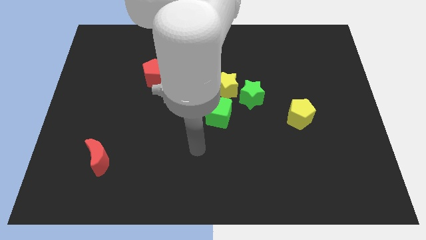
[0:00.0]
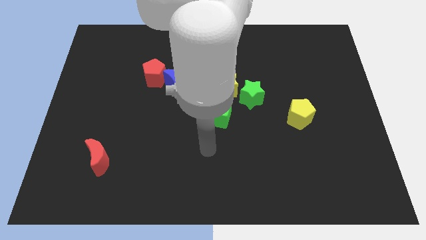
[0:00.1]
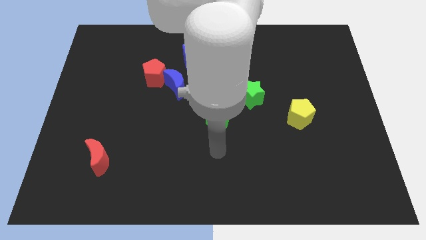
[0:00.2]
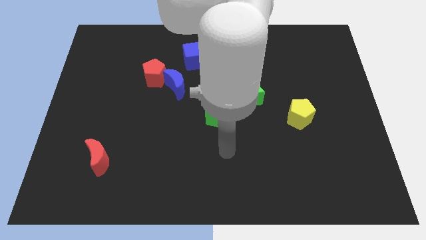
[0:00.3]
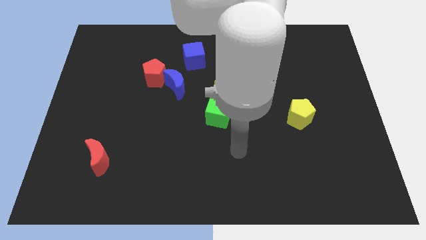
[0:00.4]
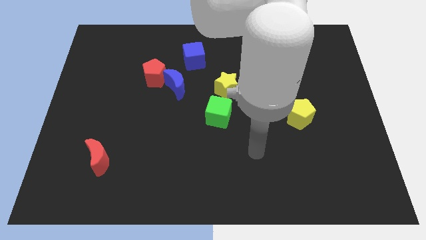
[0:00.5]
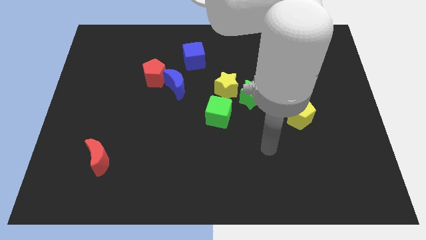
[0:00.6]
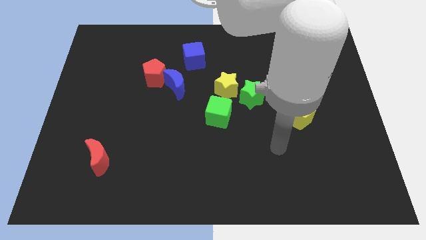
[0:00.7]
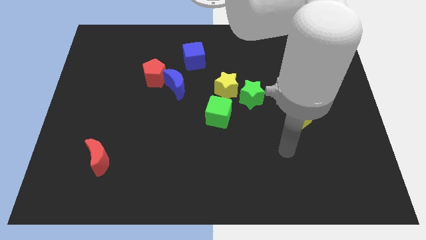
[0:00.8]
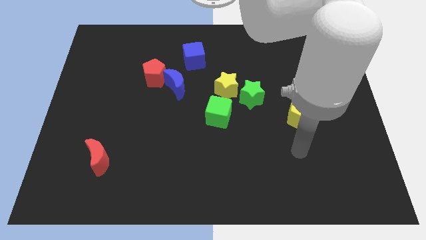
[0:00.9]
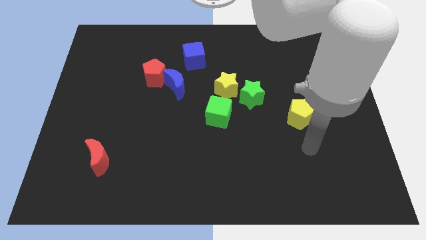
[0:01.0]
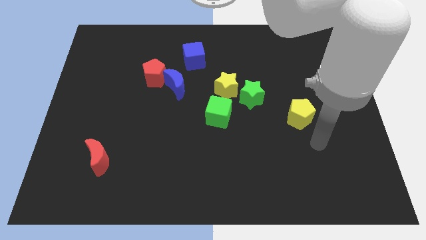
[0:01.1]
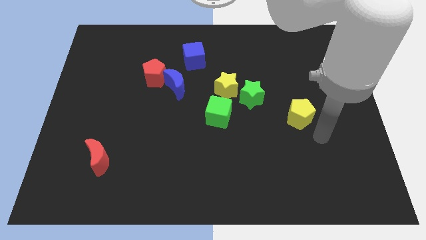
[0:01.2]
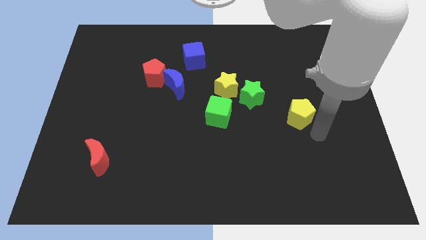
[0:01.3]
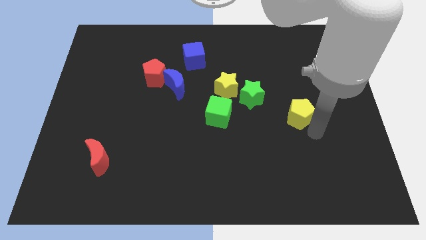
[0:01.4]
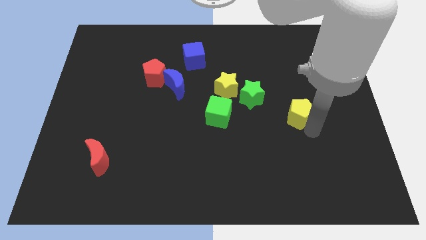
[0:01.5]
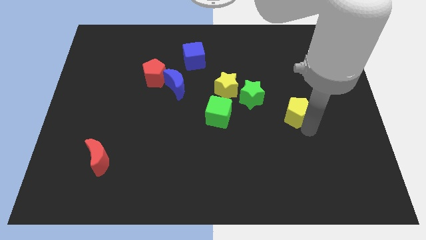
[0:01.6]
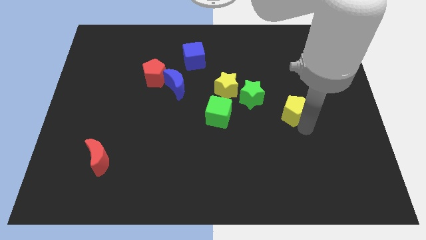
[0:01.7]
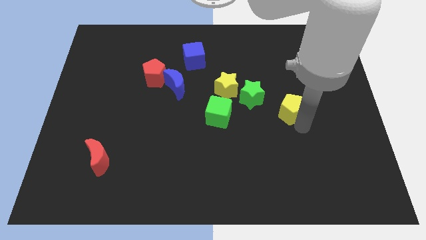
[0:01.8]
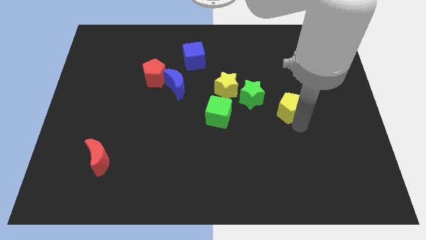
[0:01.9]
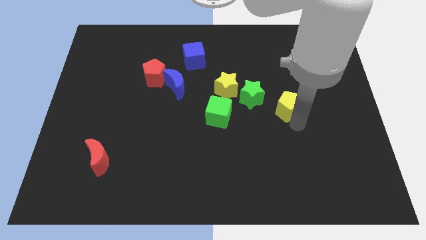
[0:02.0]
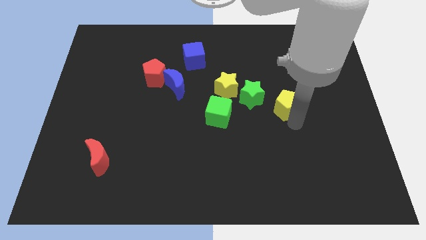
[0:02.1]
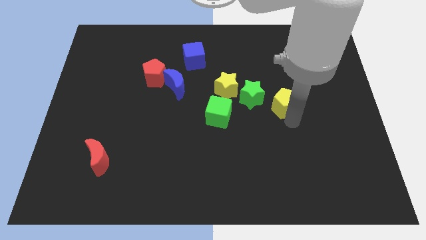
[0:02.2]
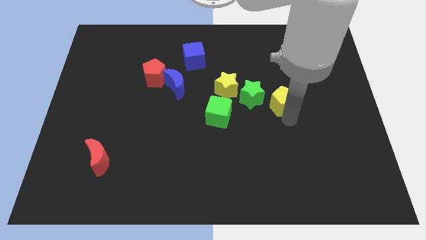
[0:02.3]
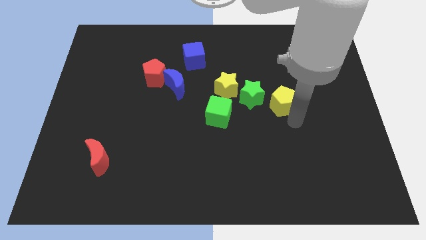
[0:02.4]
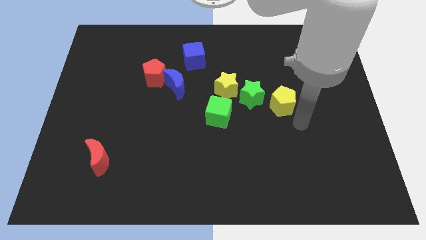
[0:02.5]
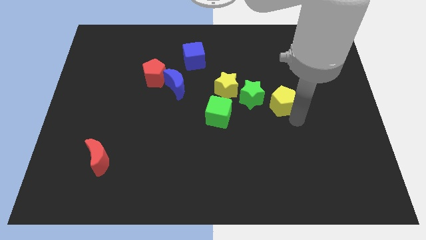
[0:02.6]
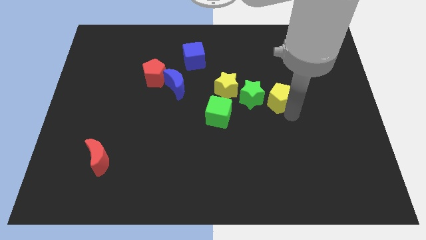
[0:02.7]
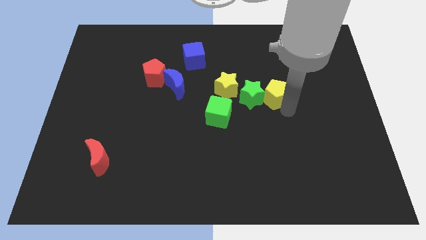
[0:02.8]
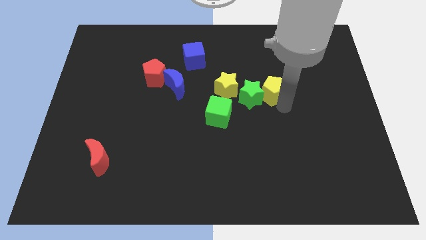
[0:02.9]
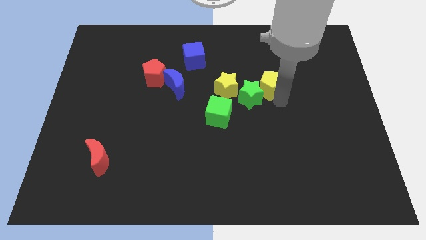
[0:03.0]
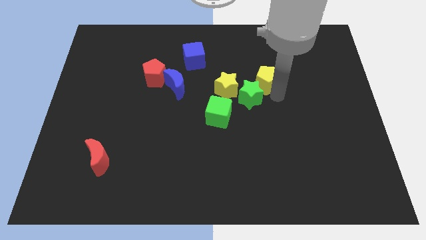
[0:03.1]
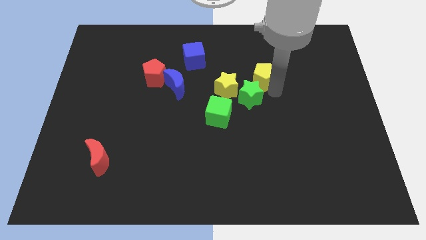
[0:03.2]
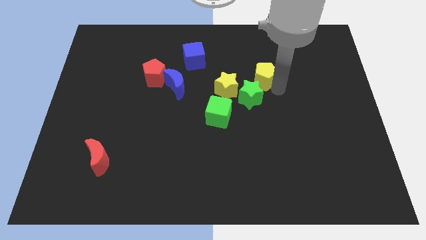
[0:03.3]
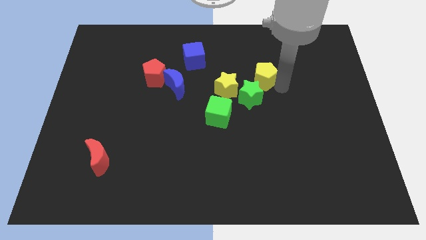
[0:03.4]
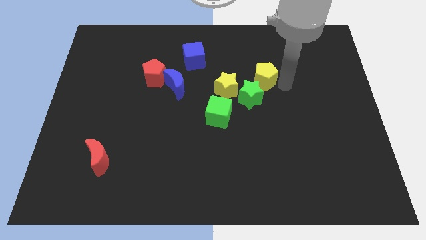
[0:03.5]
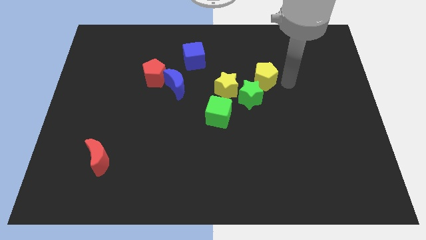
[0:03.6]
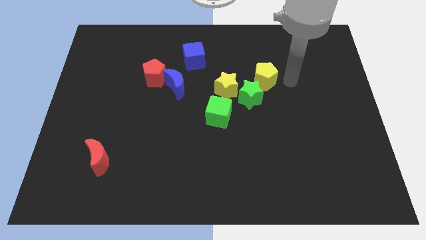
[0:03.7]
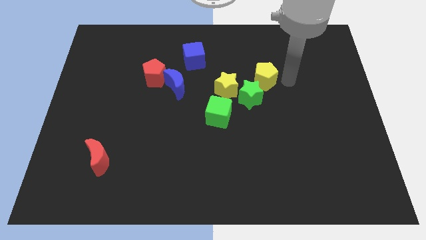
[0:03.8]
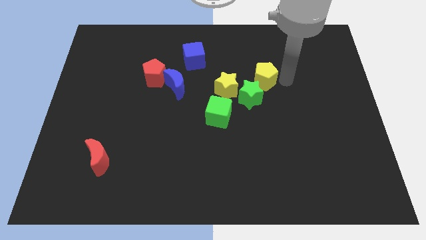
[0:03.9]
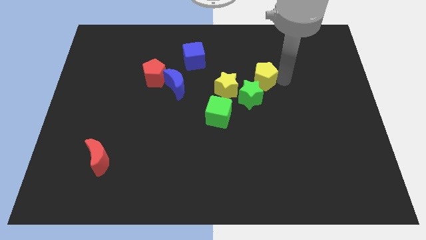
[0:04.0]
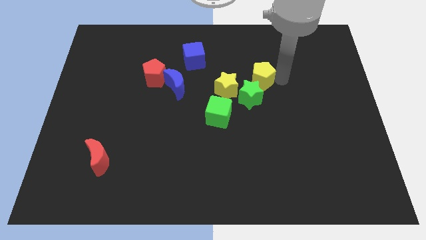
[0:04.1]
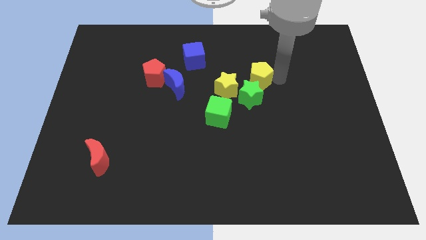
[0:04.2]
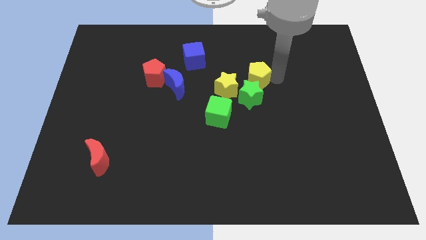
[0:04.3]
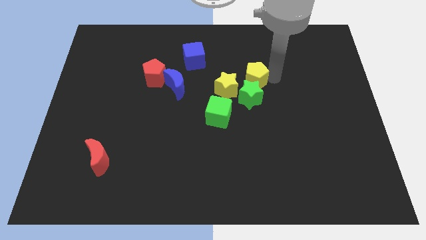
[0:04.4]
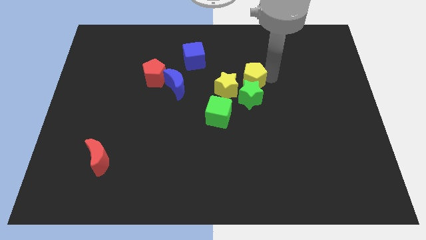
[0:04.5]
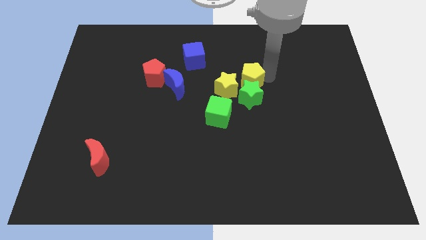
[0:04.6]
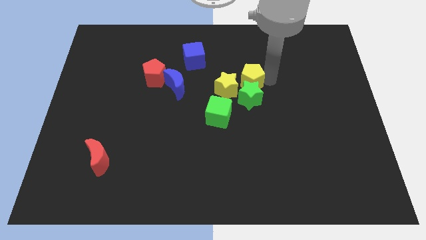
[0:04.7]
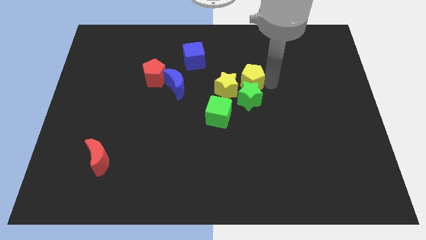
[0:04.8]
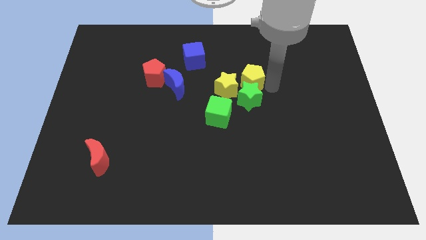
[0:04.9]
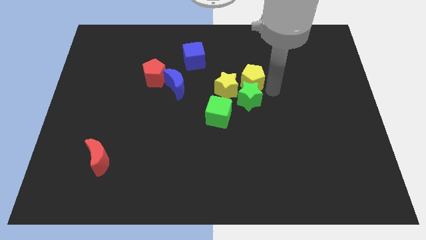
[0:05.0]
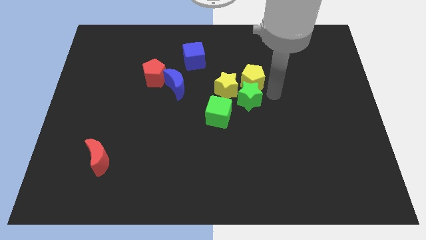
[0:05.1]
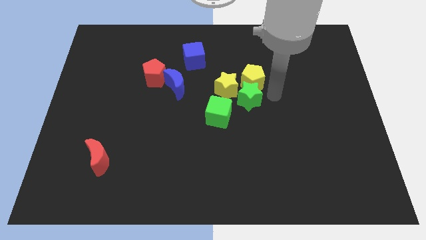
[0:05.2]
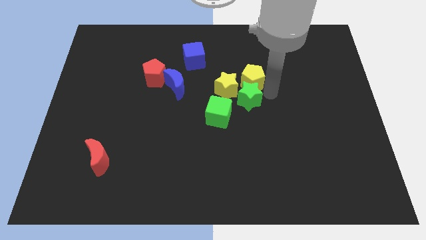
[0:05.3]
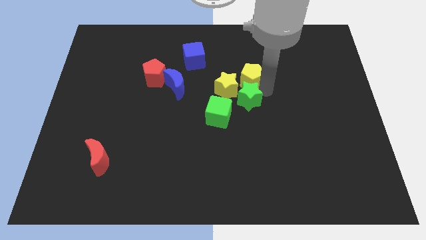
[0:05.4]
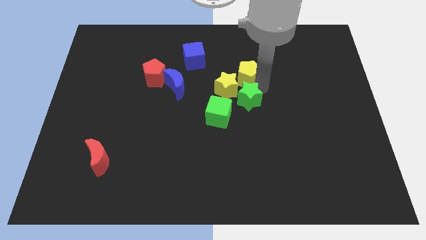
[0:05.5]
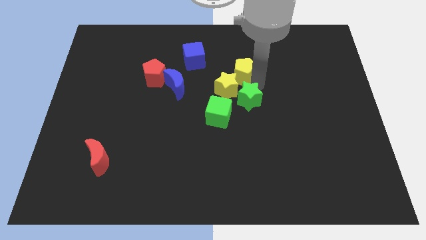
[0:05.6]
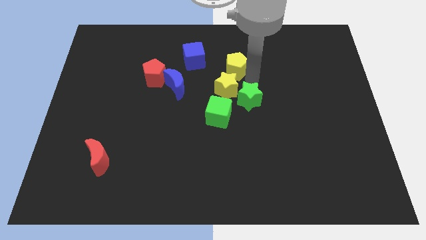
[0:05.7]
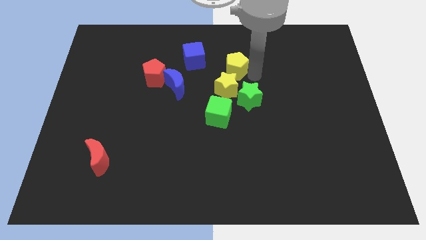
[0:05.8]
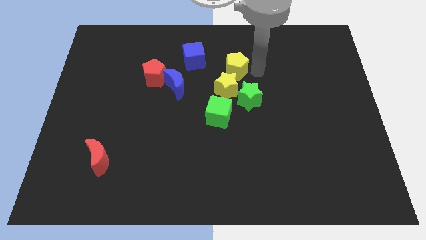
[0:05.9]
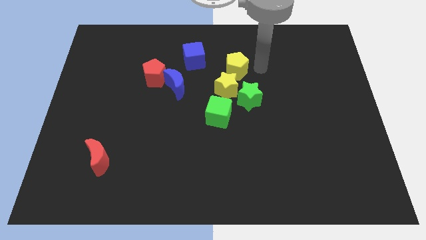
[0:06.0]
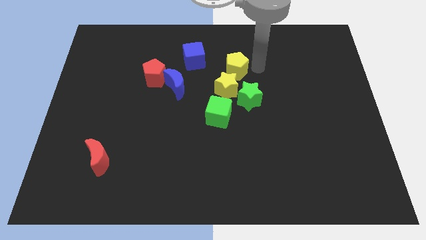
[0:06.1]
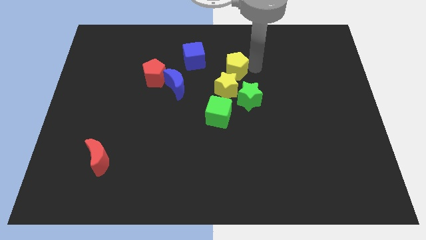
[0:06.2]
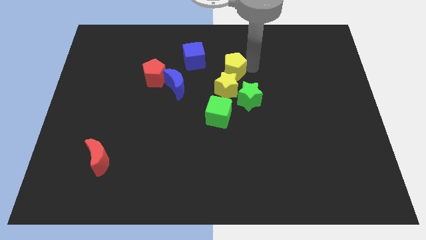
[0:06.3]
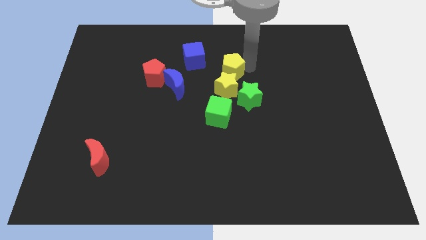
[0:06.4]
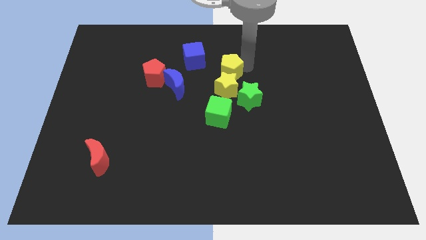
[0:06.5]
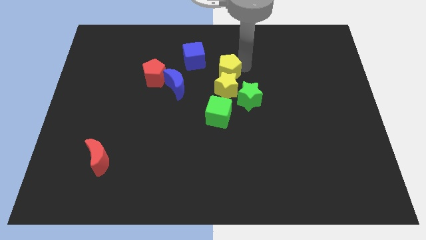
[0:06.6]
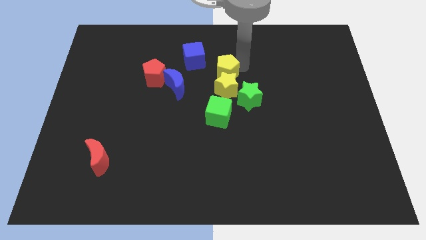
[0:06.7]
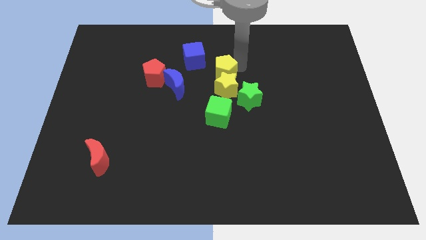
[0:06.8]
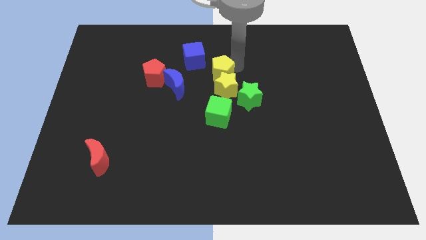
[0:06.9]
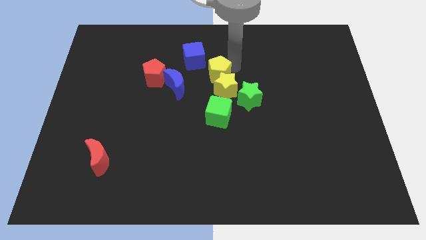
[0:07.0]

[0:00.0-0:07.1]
slide the yellow pentagon to the right side of the red pentagon
